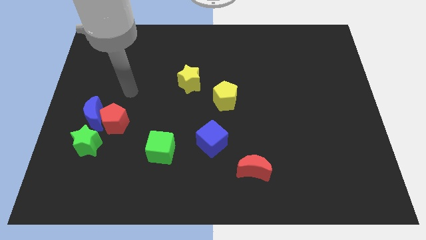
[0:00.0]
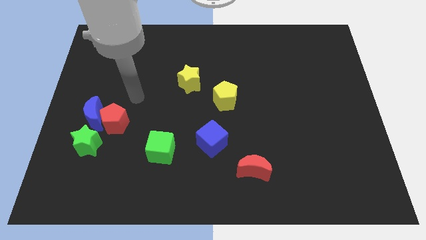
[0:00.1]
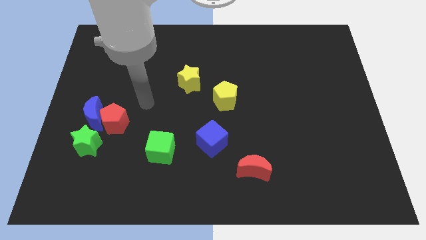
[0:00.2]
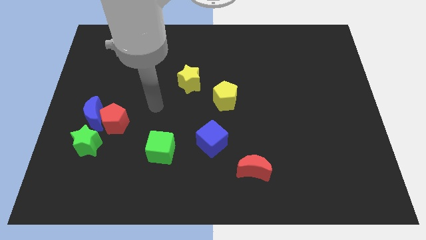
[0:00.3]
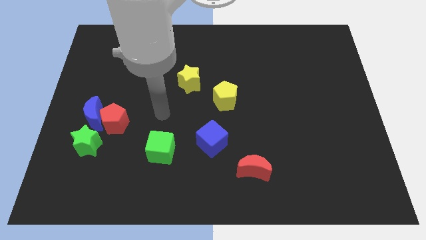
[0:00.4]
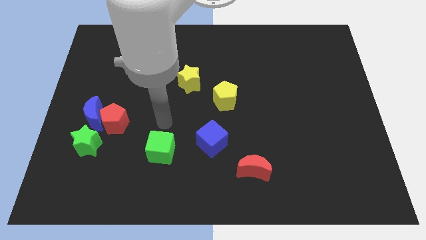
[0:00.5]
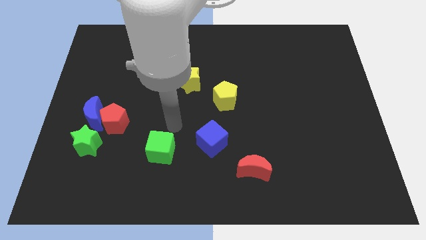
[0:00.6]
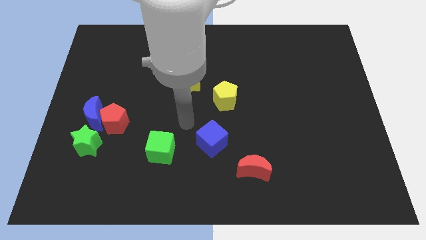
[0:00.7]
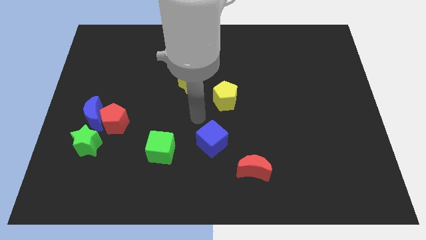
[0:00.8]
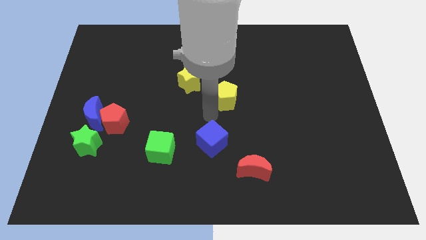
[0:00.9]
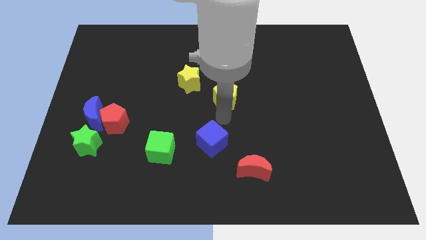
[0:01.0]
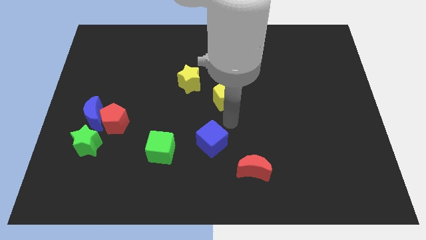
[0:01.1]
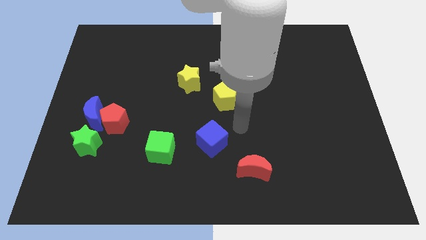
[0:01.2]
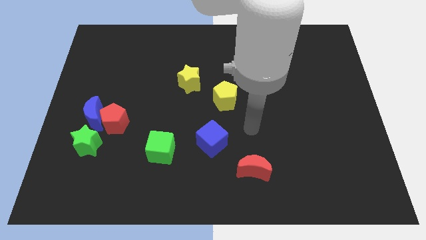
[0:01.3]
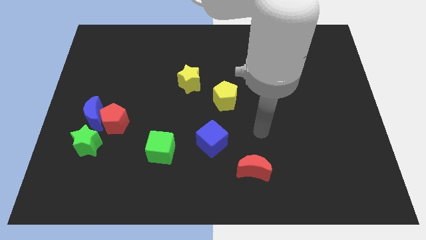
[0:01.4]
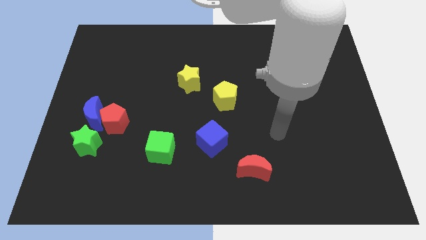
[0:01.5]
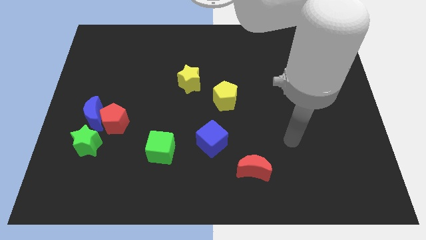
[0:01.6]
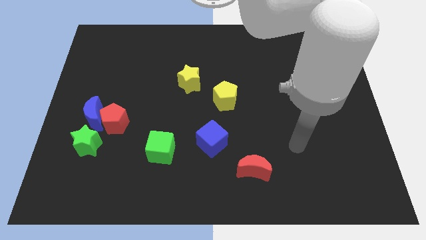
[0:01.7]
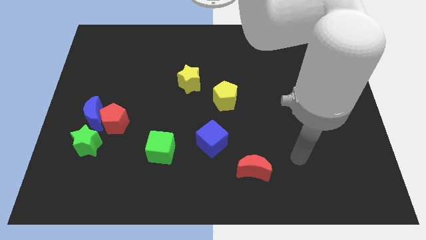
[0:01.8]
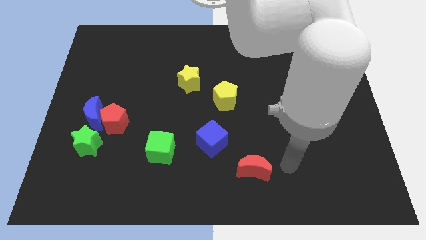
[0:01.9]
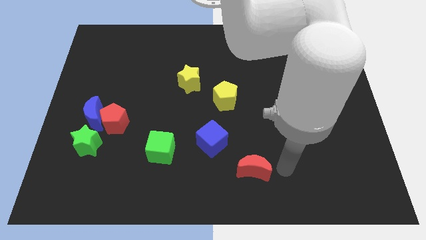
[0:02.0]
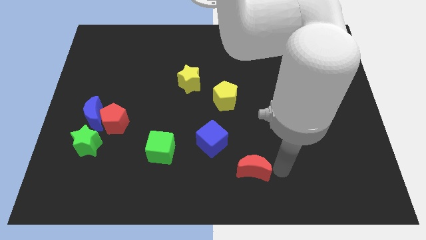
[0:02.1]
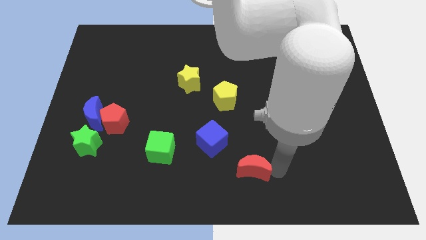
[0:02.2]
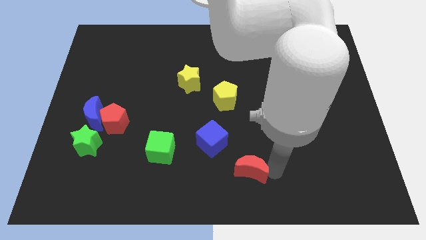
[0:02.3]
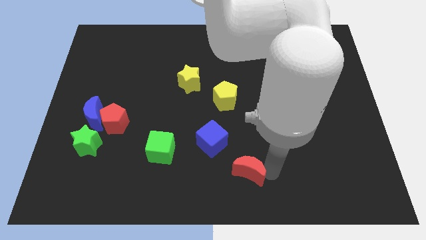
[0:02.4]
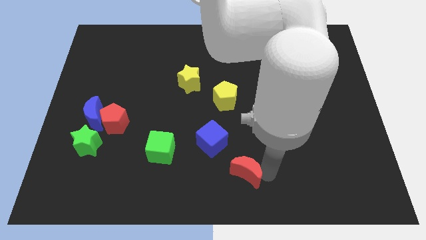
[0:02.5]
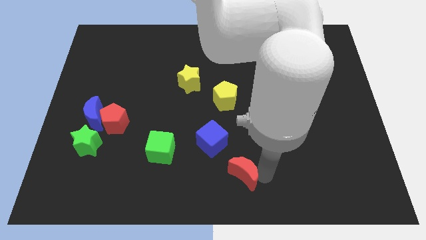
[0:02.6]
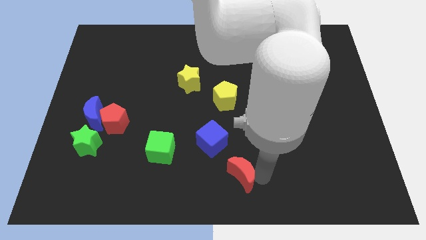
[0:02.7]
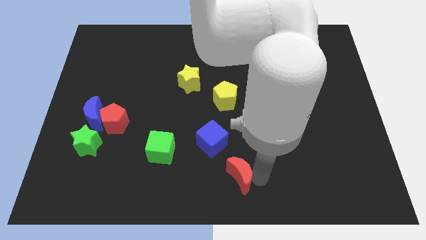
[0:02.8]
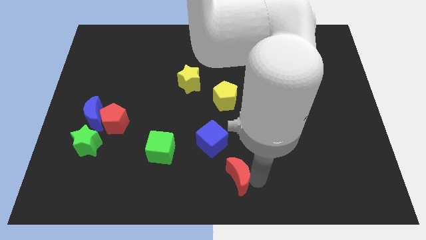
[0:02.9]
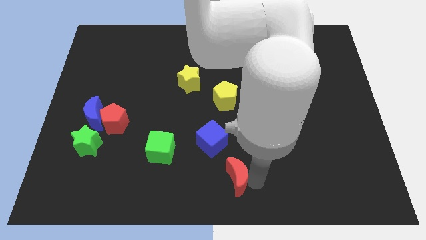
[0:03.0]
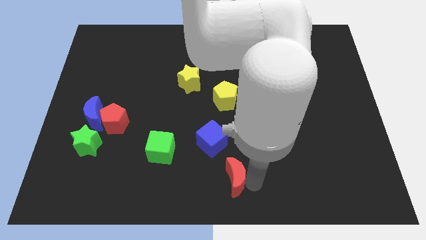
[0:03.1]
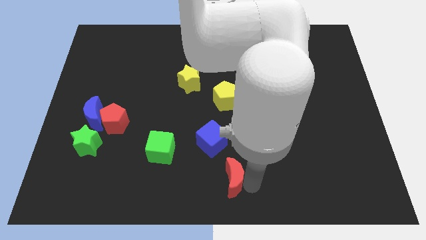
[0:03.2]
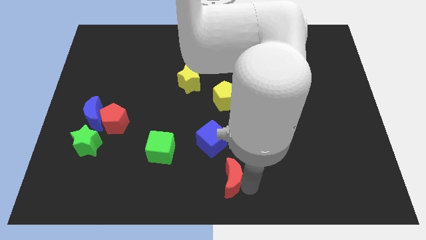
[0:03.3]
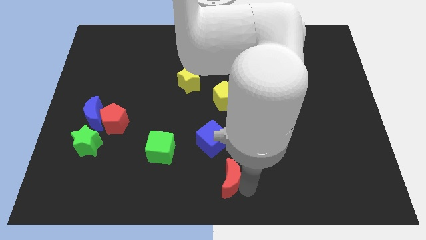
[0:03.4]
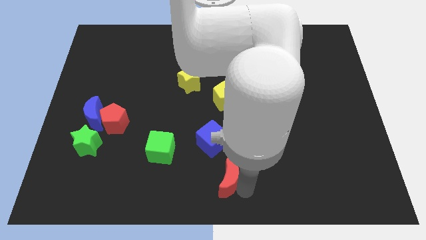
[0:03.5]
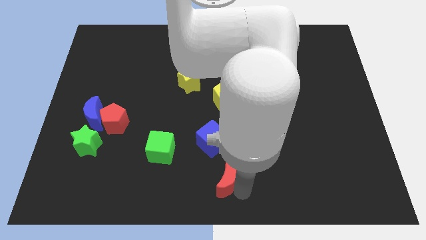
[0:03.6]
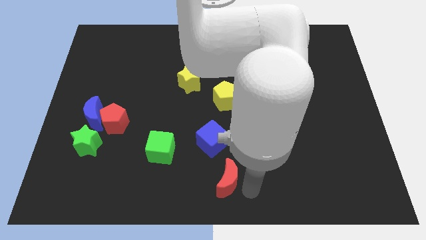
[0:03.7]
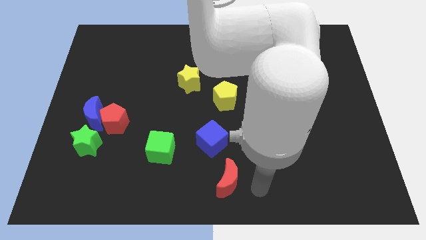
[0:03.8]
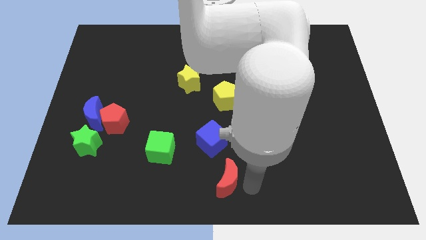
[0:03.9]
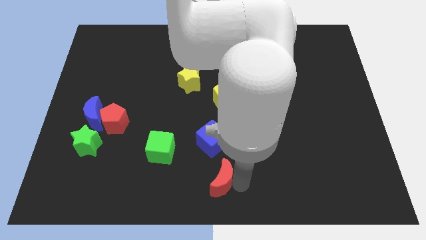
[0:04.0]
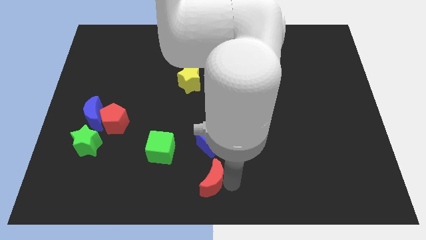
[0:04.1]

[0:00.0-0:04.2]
slightly move the red moon left

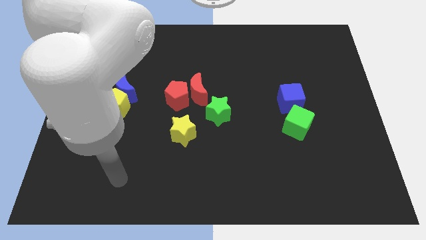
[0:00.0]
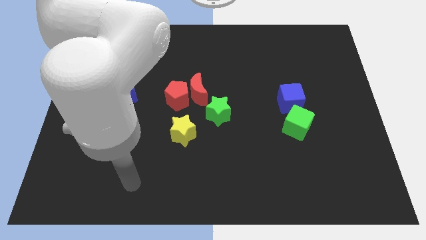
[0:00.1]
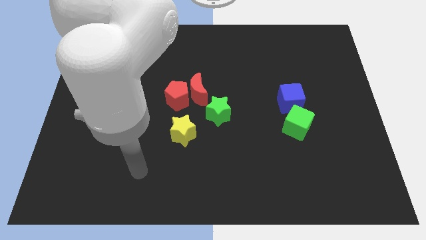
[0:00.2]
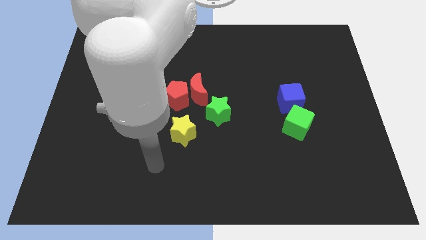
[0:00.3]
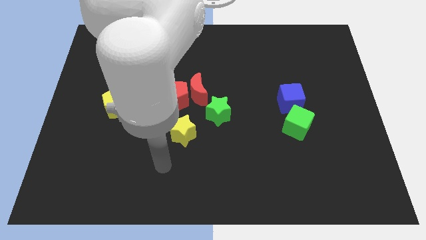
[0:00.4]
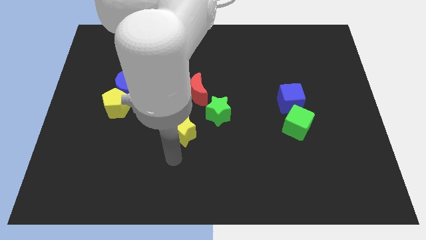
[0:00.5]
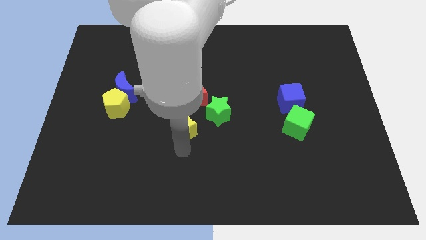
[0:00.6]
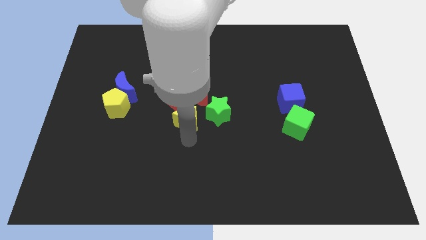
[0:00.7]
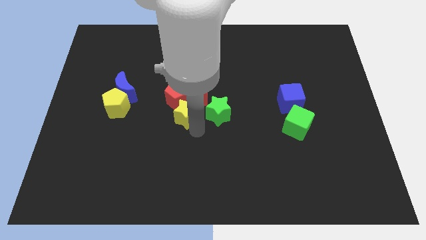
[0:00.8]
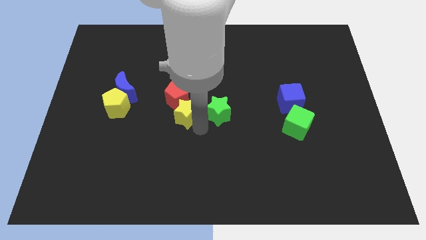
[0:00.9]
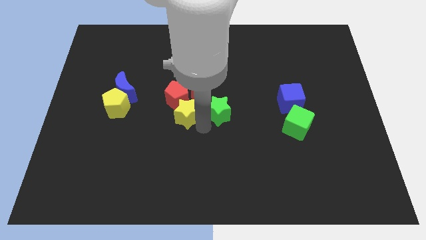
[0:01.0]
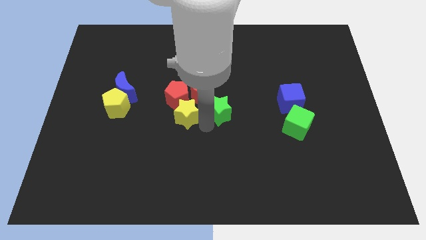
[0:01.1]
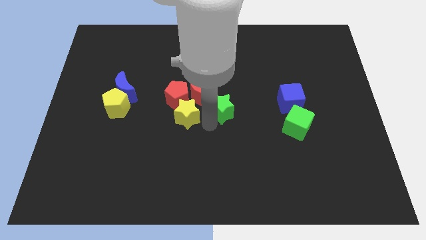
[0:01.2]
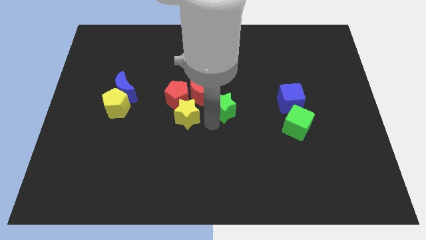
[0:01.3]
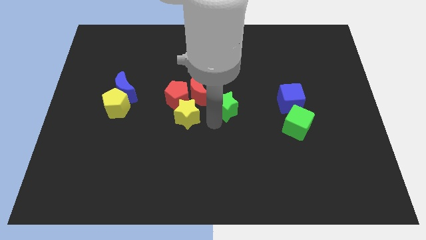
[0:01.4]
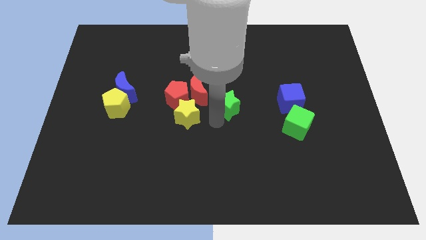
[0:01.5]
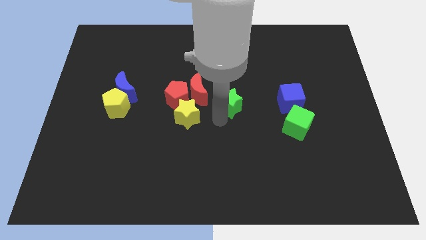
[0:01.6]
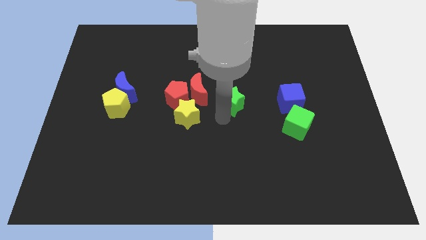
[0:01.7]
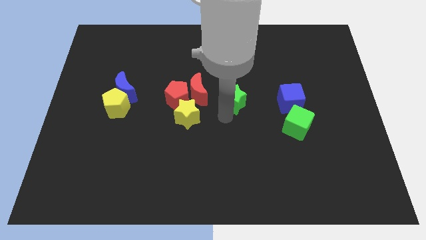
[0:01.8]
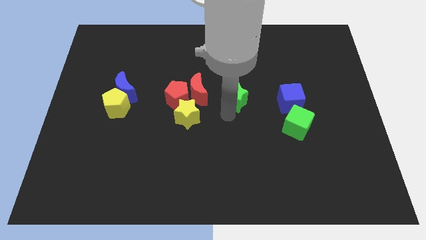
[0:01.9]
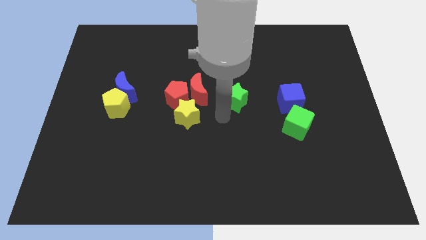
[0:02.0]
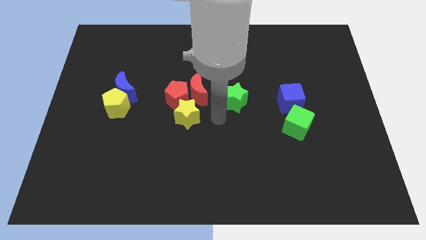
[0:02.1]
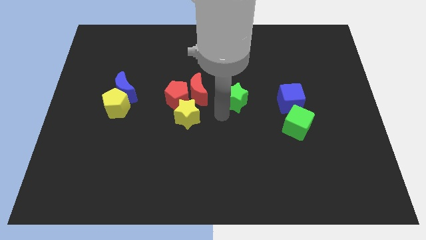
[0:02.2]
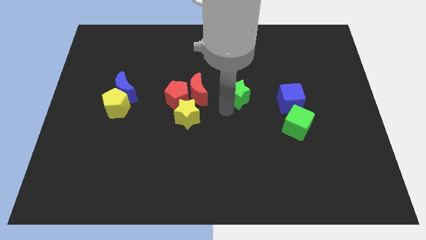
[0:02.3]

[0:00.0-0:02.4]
slide the green star diagonally upwards and to the right a little

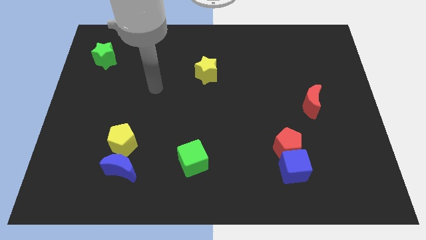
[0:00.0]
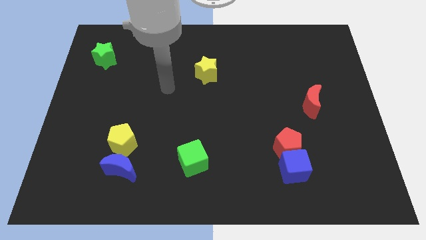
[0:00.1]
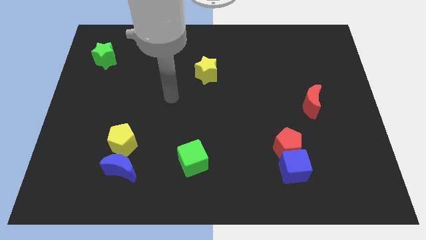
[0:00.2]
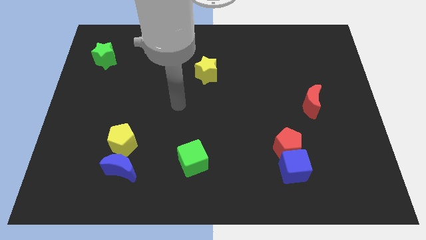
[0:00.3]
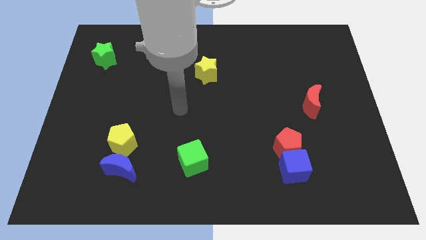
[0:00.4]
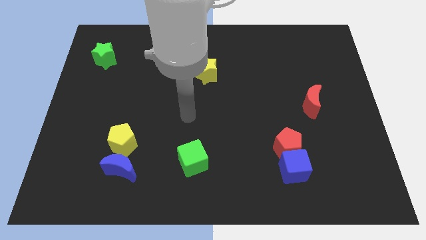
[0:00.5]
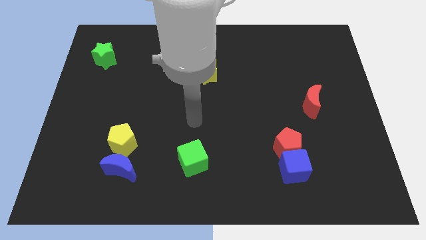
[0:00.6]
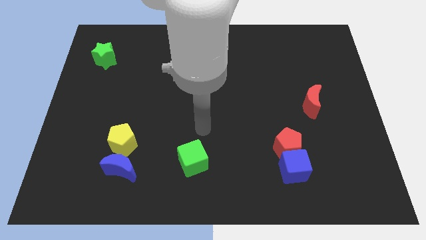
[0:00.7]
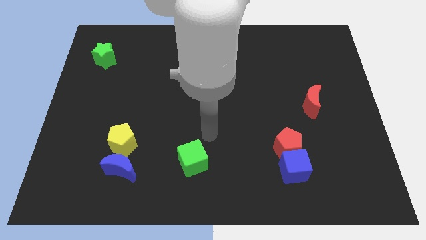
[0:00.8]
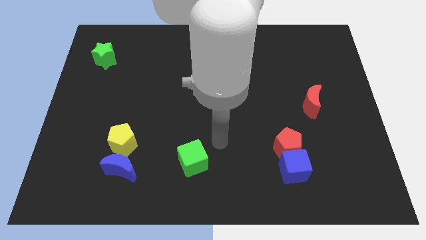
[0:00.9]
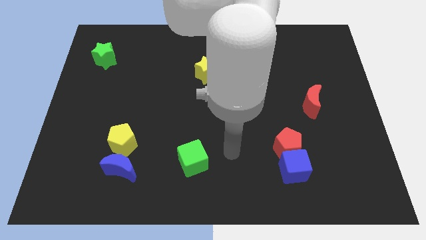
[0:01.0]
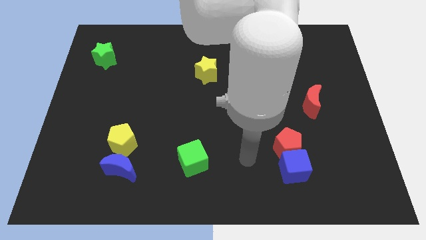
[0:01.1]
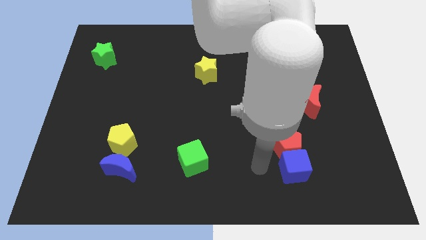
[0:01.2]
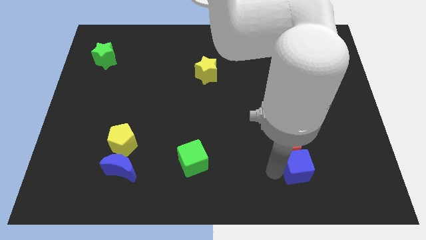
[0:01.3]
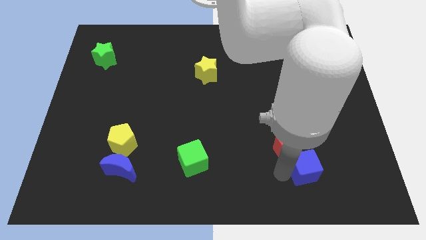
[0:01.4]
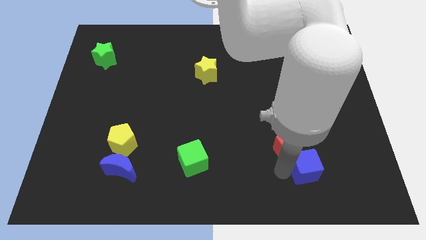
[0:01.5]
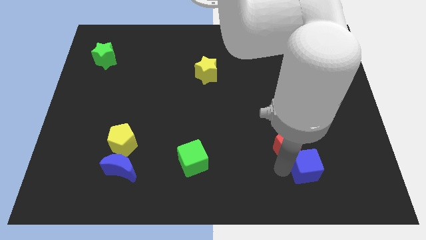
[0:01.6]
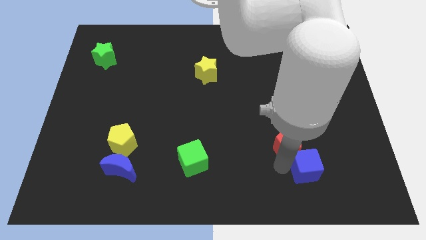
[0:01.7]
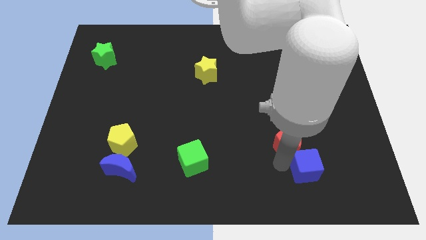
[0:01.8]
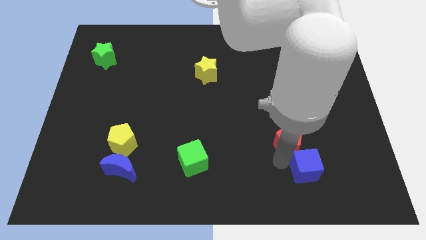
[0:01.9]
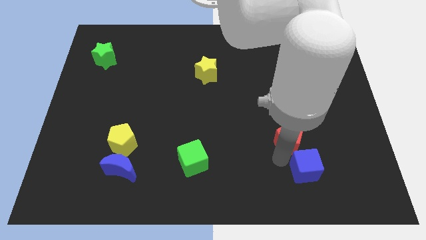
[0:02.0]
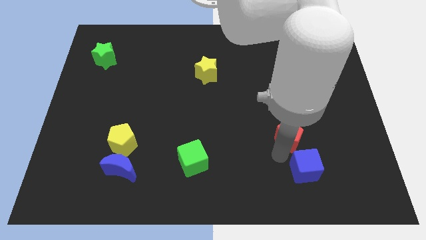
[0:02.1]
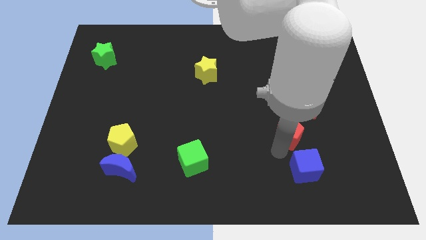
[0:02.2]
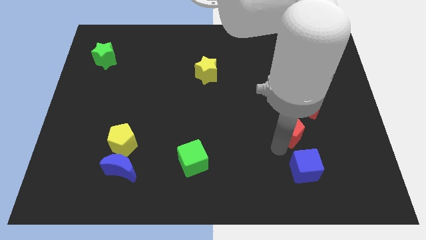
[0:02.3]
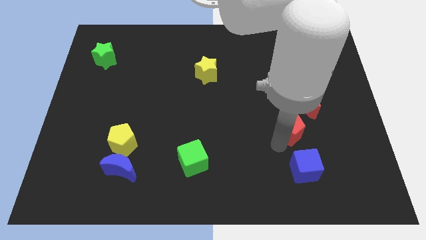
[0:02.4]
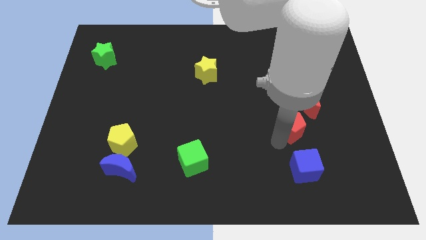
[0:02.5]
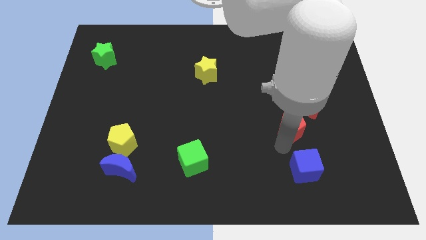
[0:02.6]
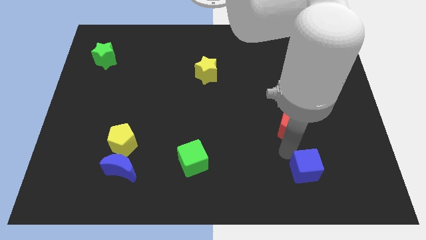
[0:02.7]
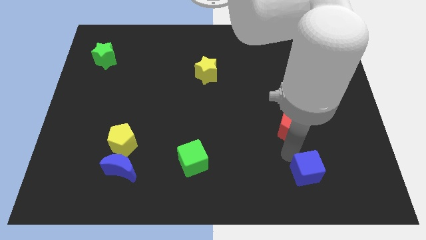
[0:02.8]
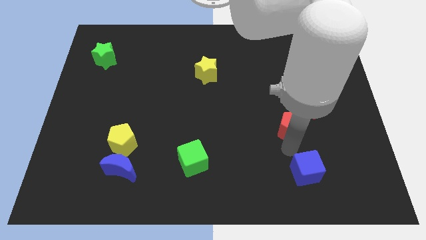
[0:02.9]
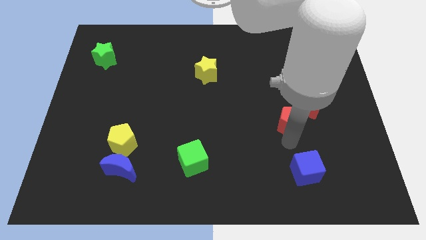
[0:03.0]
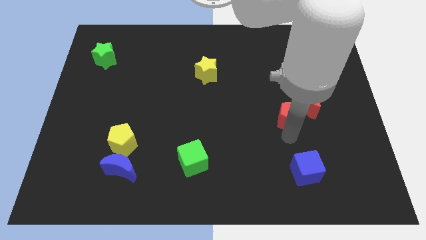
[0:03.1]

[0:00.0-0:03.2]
slightly slide the red pentagon upwards
